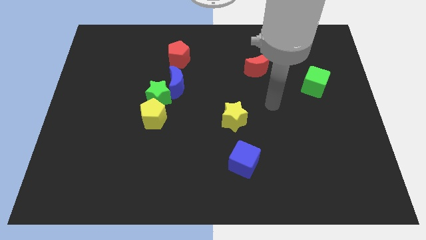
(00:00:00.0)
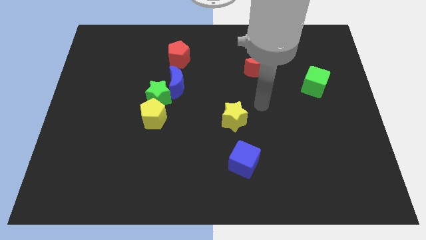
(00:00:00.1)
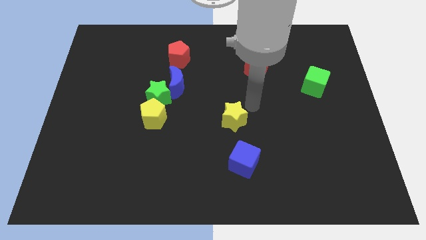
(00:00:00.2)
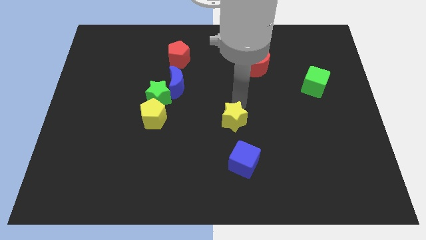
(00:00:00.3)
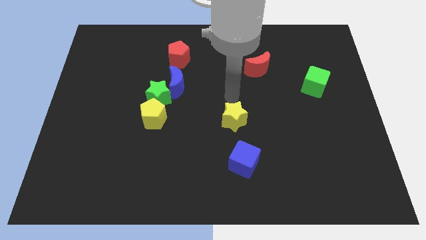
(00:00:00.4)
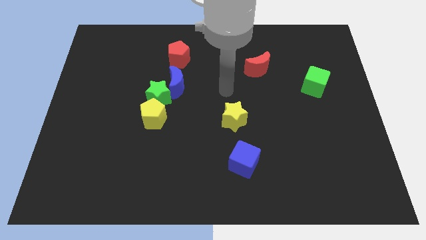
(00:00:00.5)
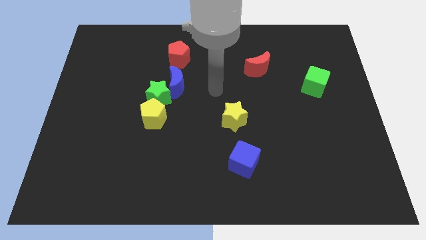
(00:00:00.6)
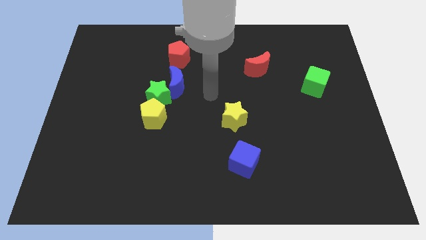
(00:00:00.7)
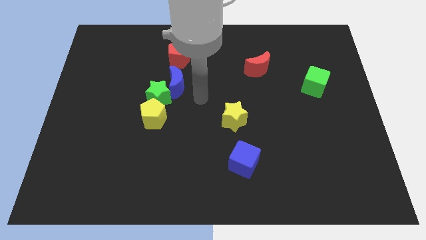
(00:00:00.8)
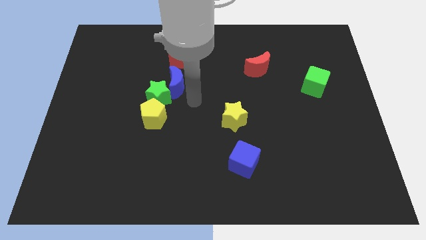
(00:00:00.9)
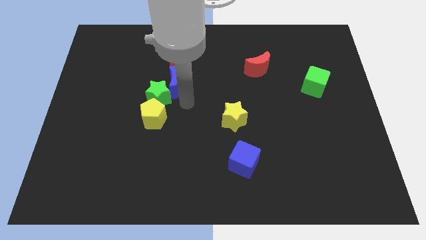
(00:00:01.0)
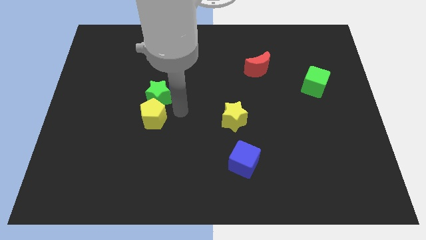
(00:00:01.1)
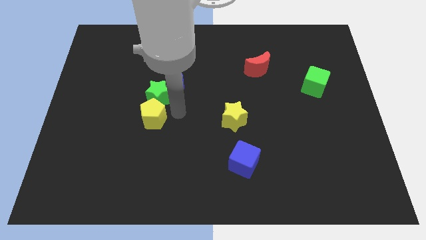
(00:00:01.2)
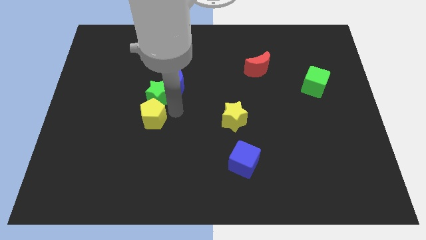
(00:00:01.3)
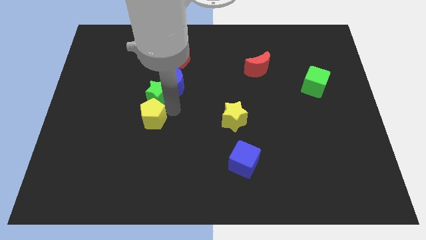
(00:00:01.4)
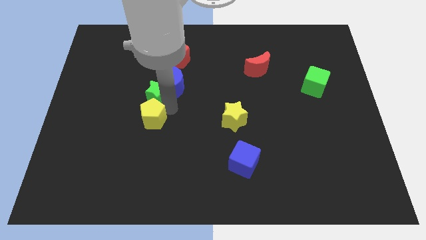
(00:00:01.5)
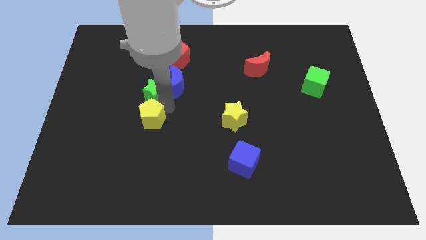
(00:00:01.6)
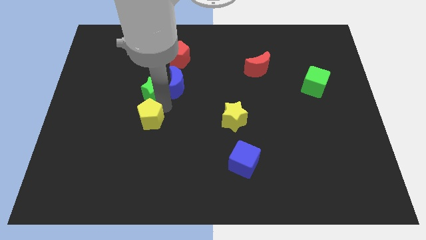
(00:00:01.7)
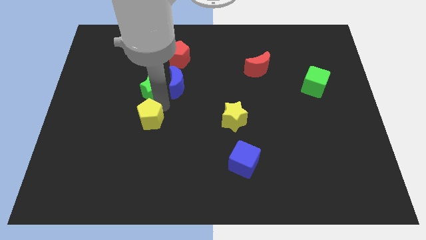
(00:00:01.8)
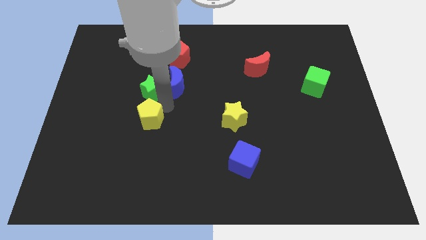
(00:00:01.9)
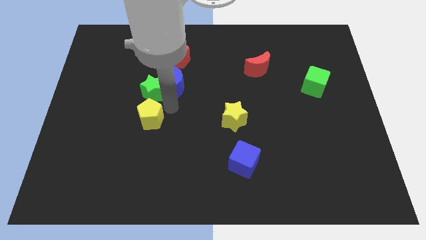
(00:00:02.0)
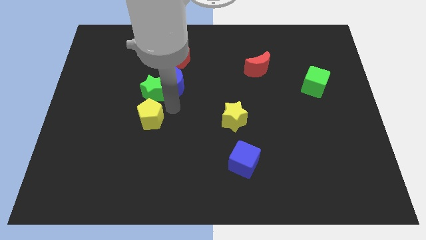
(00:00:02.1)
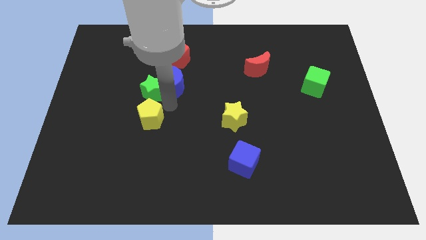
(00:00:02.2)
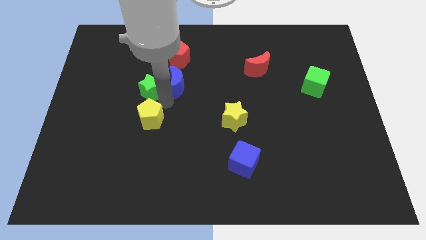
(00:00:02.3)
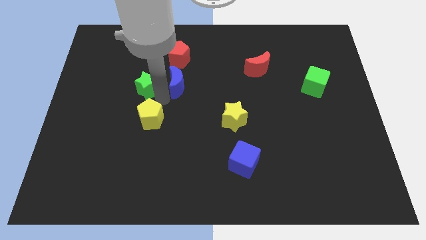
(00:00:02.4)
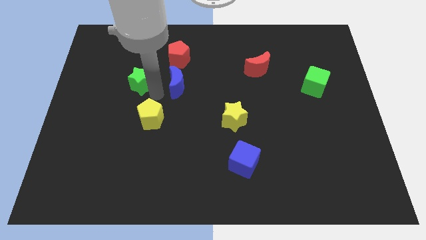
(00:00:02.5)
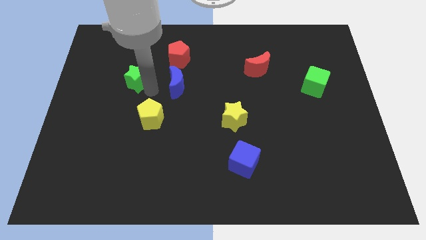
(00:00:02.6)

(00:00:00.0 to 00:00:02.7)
push the green star a bit upwards and then to the left

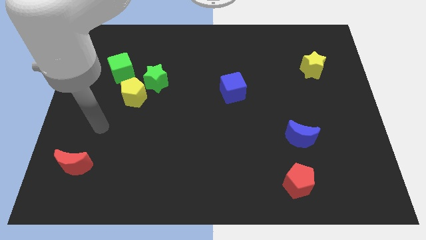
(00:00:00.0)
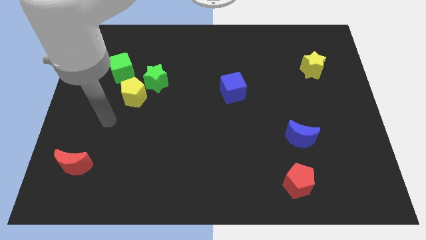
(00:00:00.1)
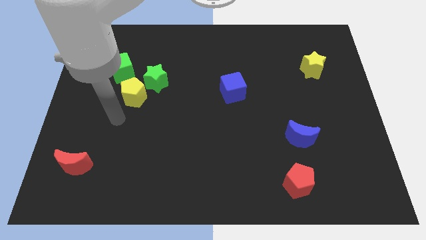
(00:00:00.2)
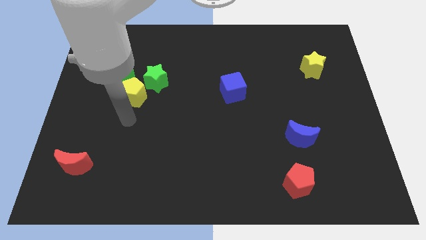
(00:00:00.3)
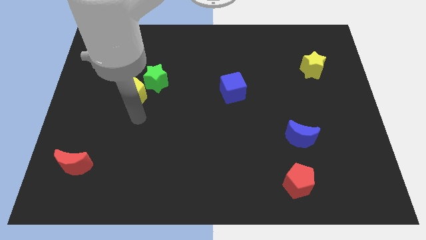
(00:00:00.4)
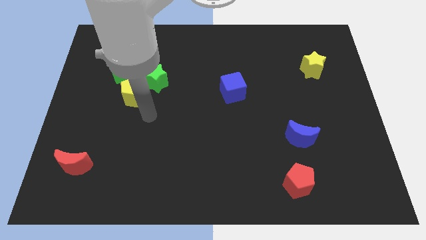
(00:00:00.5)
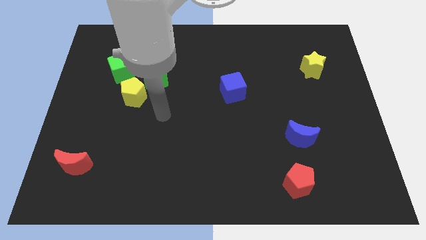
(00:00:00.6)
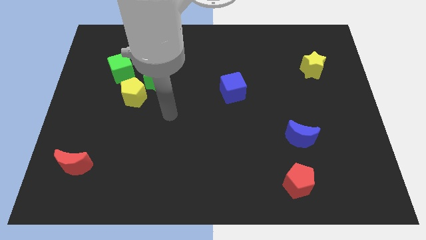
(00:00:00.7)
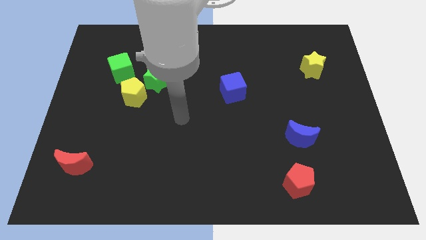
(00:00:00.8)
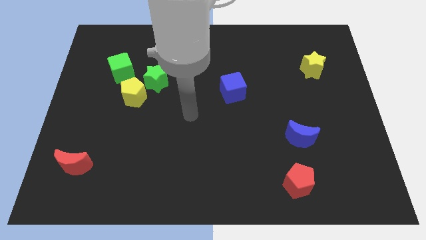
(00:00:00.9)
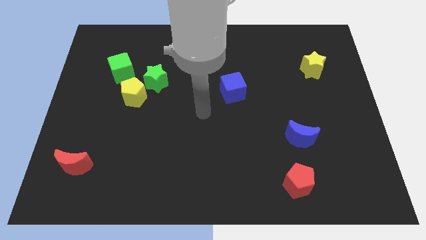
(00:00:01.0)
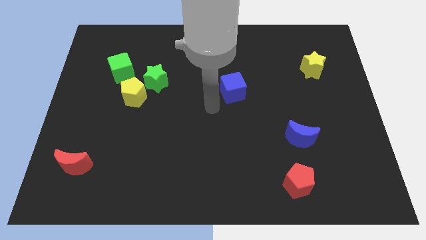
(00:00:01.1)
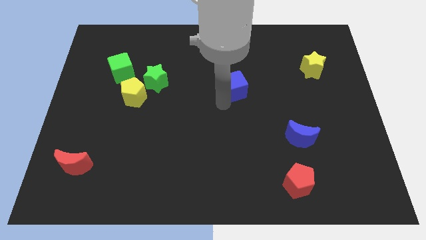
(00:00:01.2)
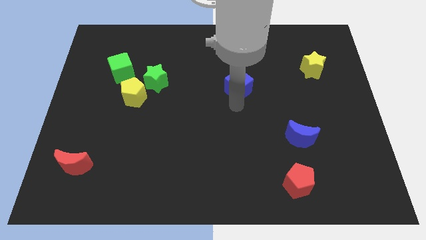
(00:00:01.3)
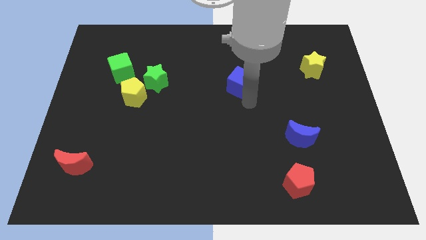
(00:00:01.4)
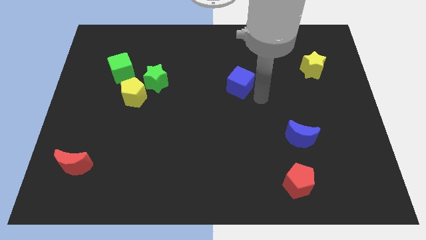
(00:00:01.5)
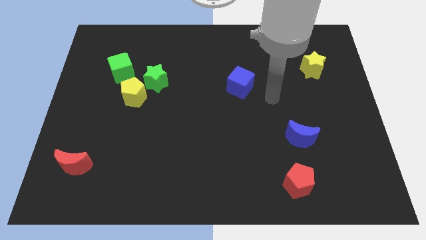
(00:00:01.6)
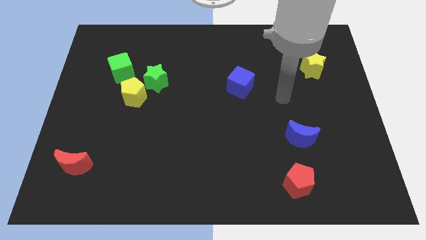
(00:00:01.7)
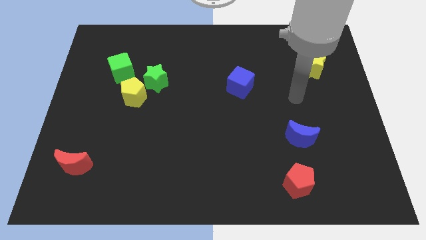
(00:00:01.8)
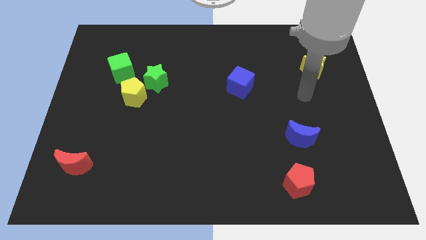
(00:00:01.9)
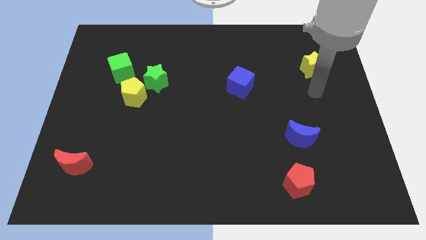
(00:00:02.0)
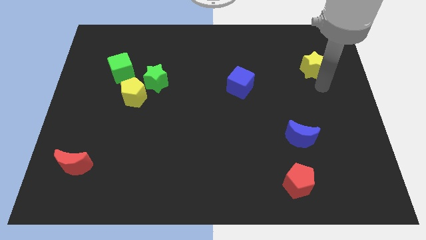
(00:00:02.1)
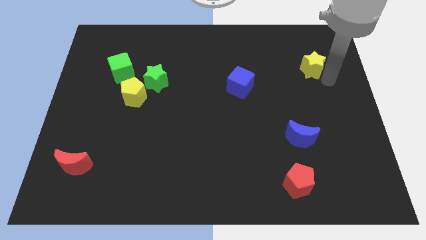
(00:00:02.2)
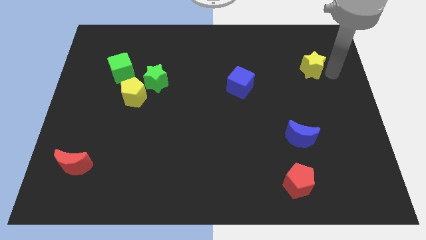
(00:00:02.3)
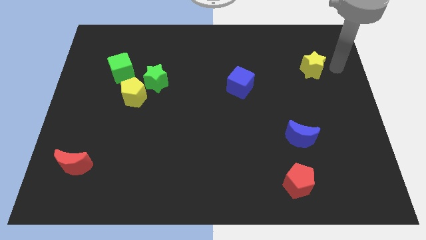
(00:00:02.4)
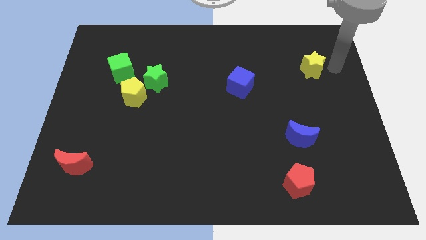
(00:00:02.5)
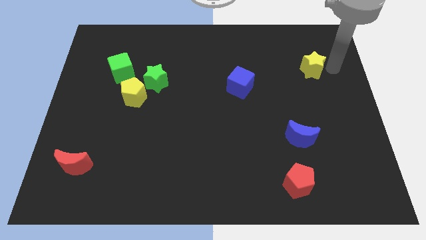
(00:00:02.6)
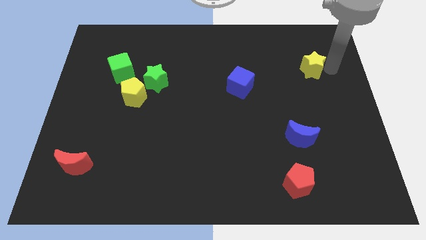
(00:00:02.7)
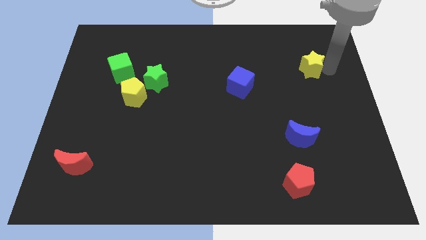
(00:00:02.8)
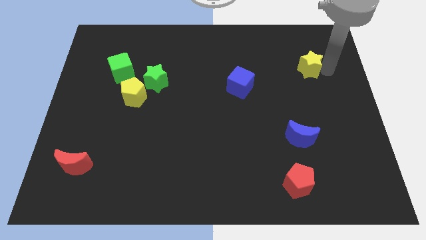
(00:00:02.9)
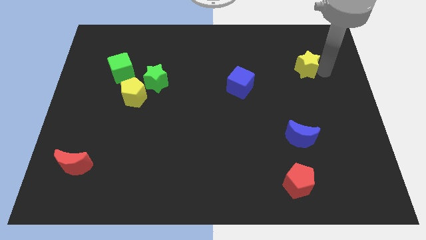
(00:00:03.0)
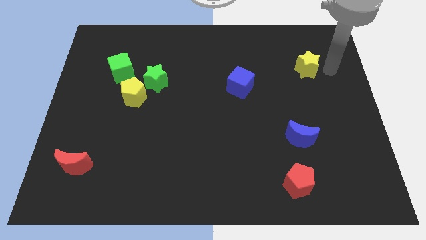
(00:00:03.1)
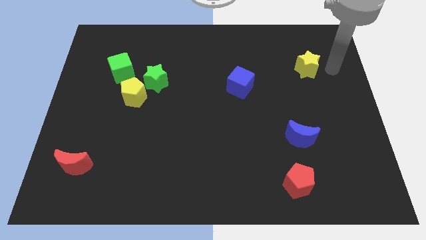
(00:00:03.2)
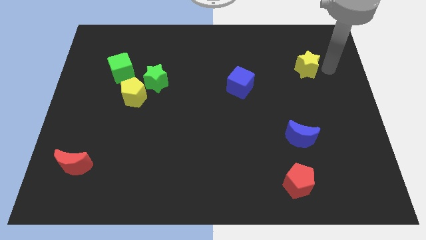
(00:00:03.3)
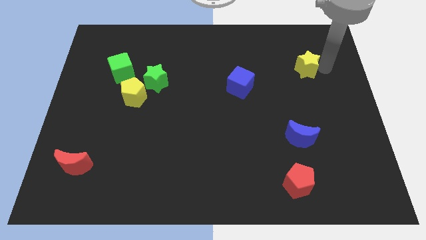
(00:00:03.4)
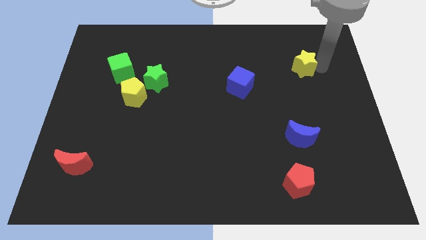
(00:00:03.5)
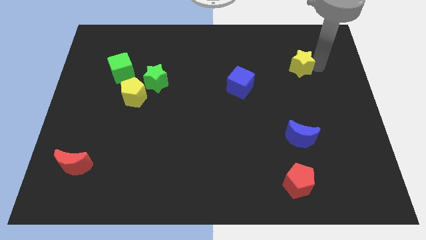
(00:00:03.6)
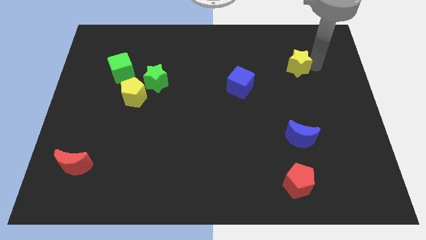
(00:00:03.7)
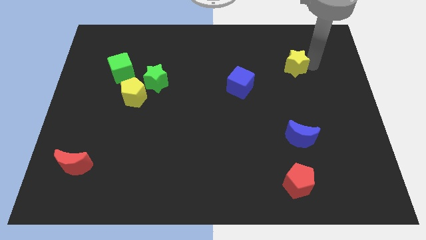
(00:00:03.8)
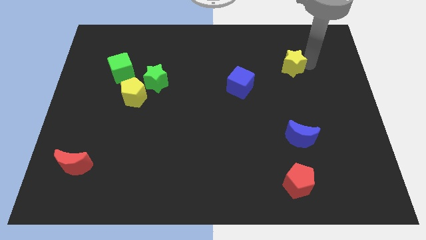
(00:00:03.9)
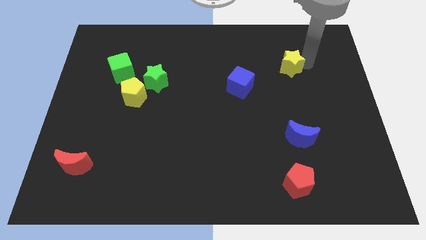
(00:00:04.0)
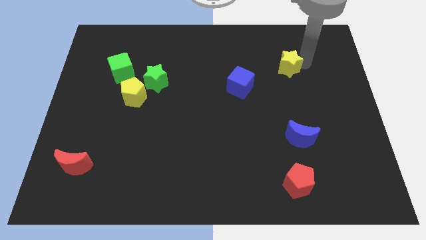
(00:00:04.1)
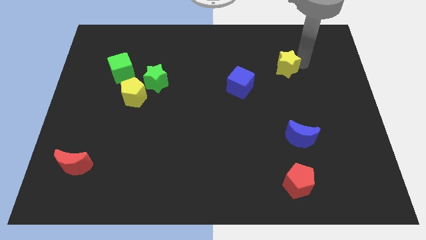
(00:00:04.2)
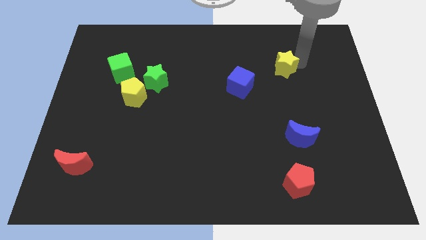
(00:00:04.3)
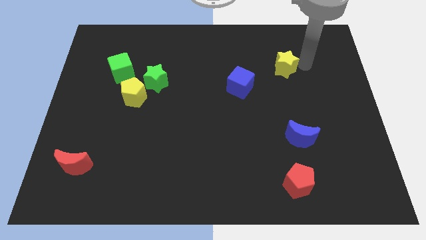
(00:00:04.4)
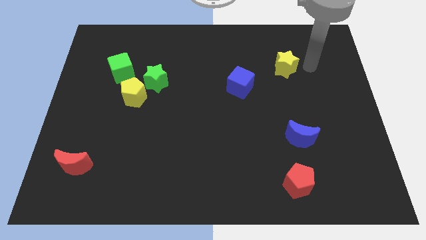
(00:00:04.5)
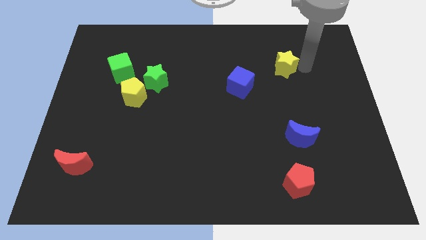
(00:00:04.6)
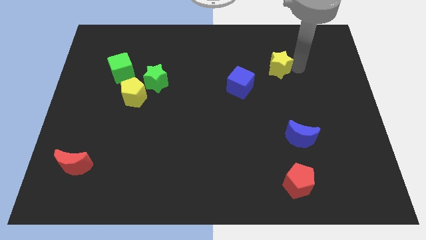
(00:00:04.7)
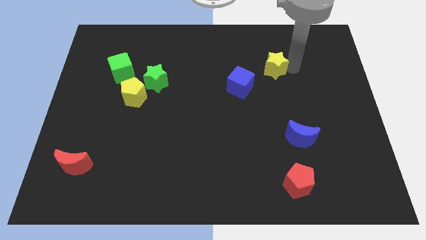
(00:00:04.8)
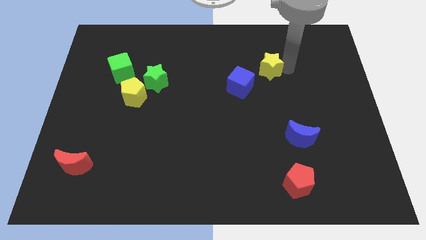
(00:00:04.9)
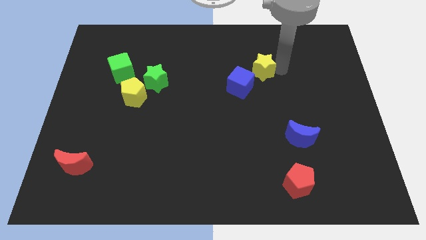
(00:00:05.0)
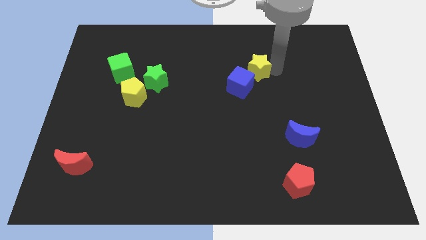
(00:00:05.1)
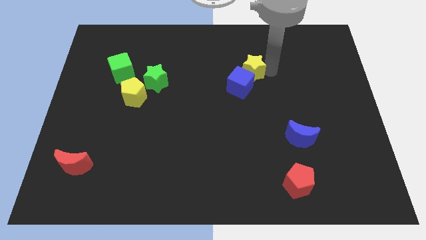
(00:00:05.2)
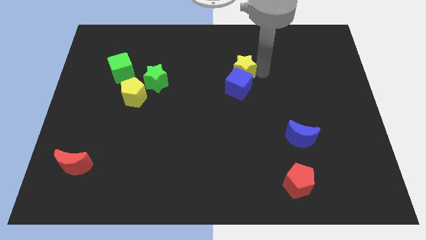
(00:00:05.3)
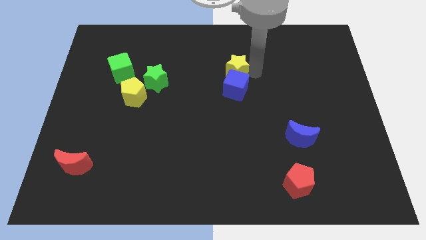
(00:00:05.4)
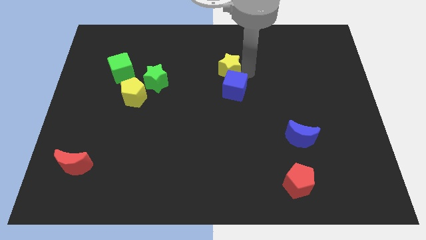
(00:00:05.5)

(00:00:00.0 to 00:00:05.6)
push the yellow star to the left
